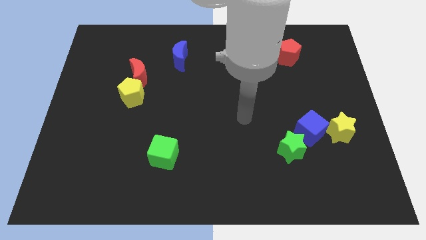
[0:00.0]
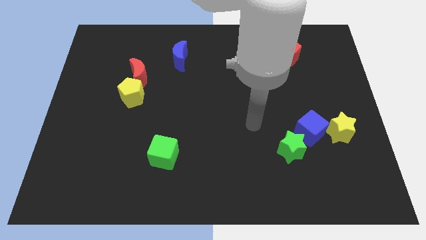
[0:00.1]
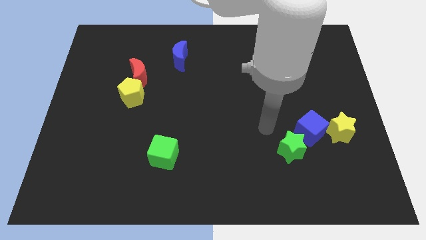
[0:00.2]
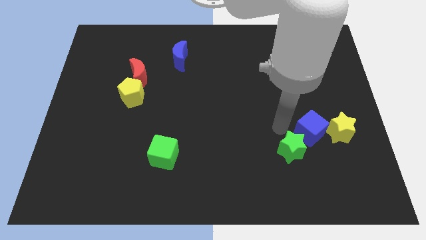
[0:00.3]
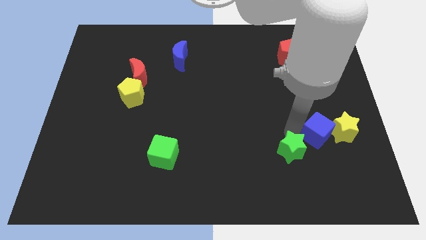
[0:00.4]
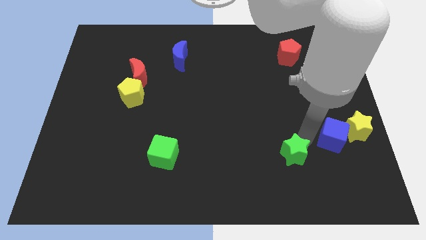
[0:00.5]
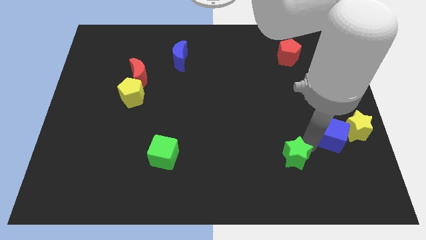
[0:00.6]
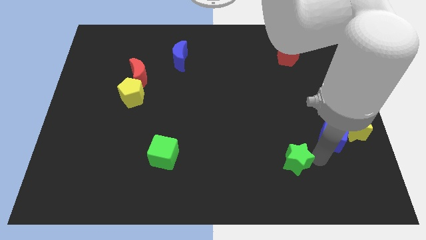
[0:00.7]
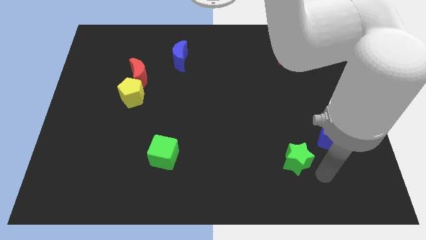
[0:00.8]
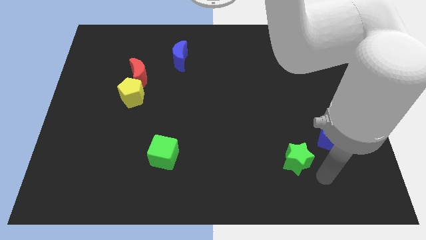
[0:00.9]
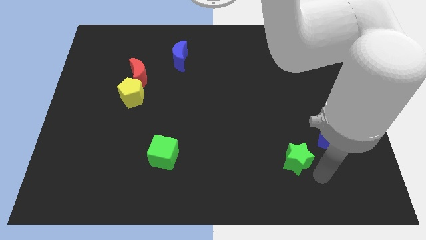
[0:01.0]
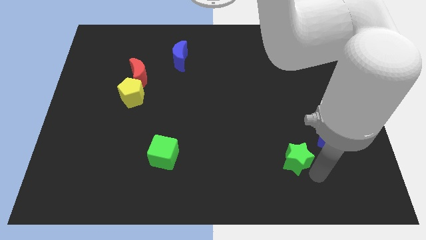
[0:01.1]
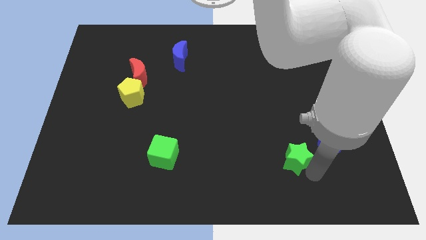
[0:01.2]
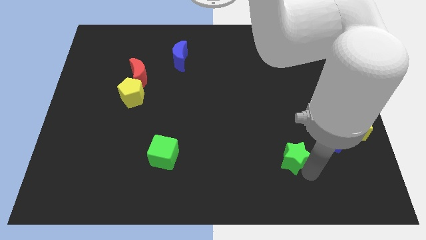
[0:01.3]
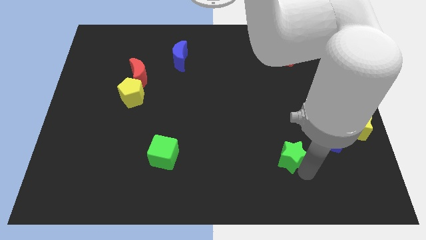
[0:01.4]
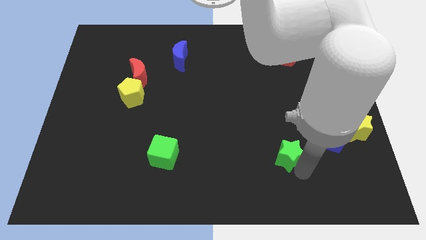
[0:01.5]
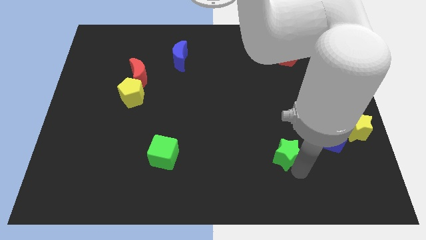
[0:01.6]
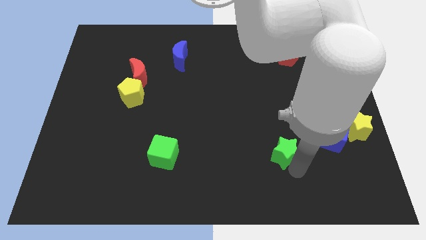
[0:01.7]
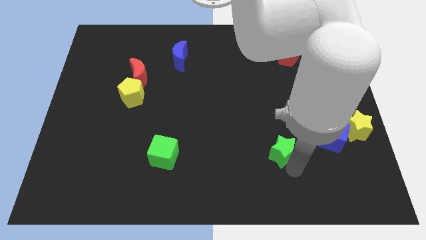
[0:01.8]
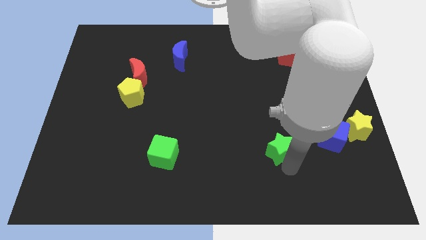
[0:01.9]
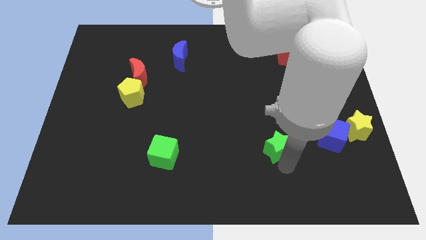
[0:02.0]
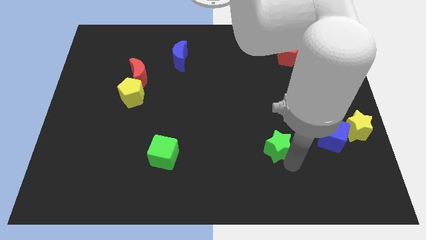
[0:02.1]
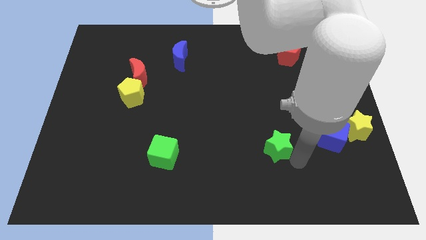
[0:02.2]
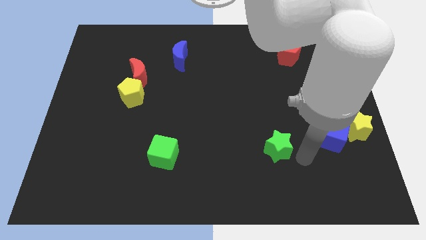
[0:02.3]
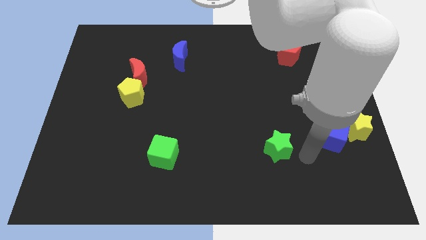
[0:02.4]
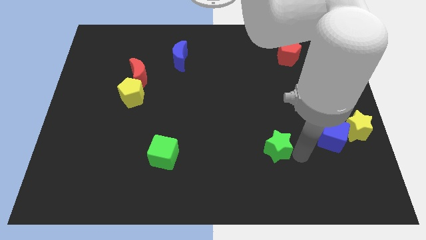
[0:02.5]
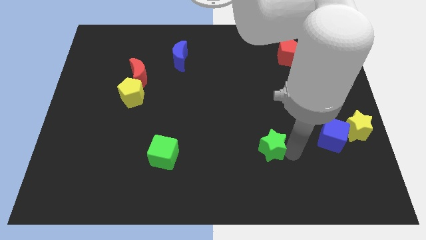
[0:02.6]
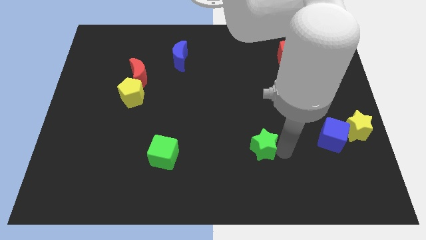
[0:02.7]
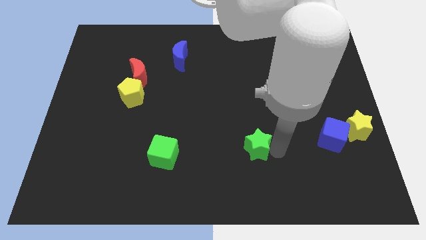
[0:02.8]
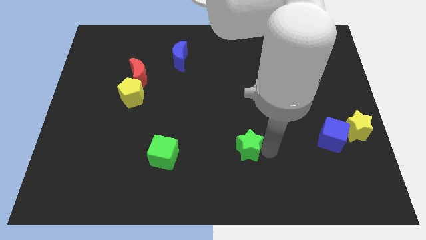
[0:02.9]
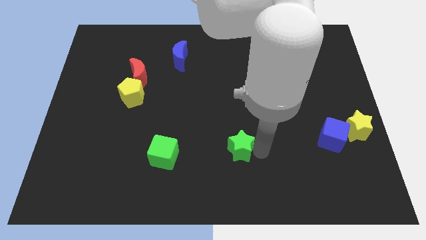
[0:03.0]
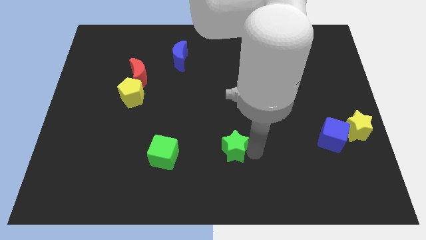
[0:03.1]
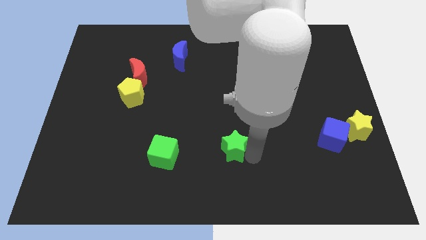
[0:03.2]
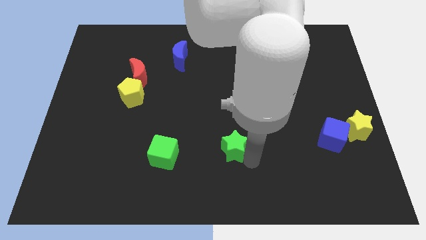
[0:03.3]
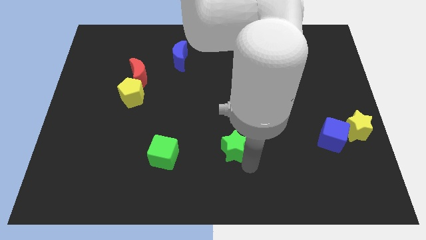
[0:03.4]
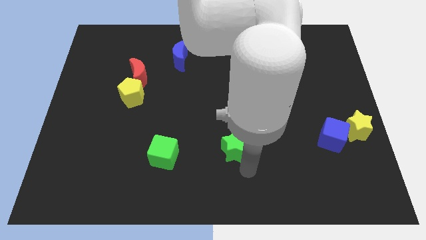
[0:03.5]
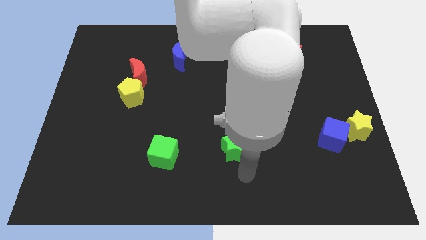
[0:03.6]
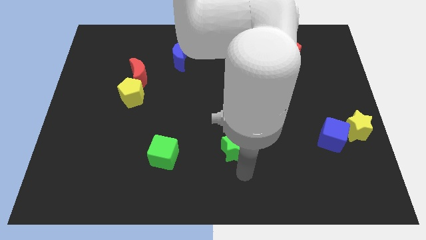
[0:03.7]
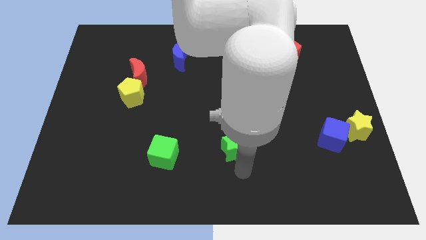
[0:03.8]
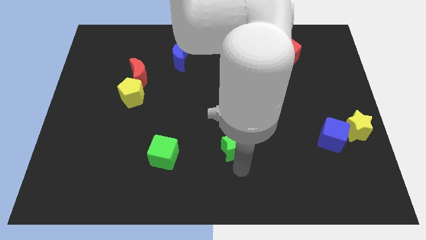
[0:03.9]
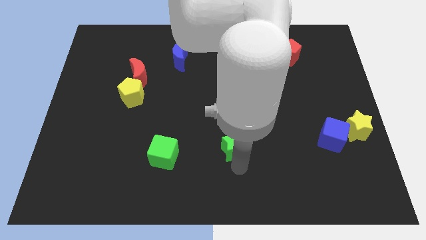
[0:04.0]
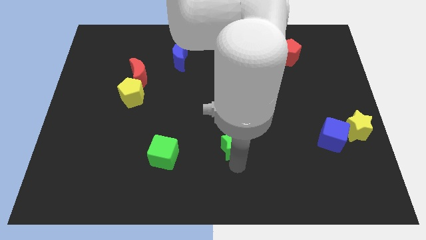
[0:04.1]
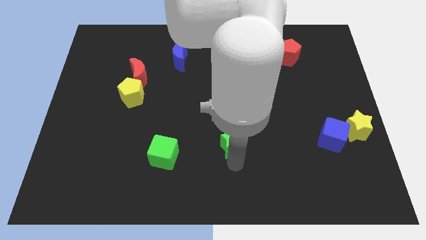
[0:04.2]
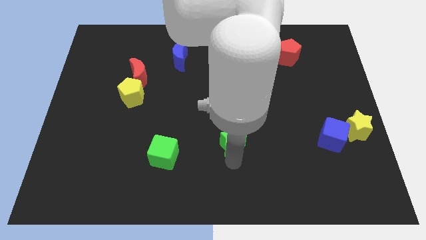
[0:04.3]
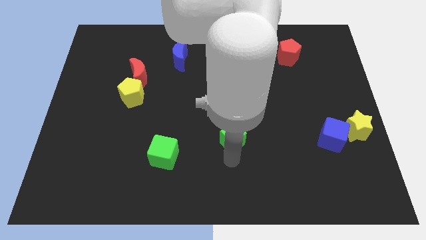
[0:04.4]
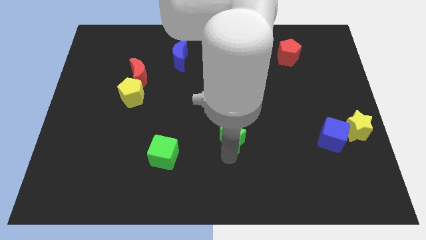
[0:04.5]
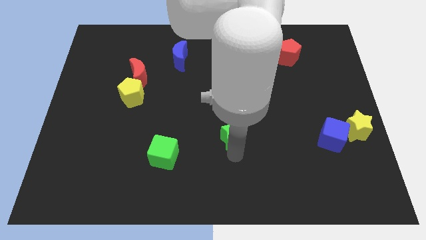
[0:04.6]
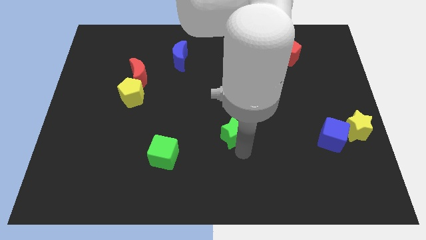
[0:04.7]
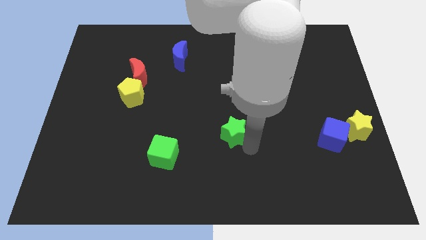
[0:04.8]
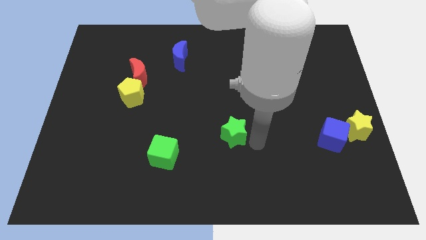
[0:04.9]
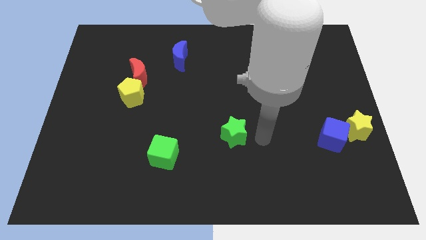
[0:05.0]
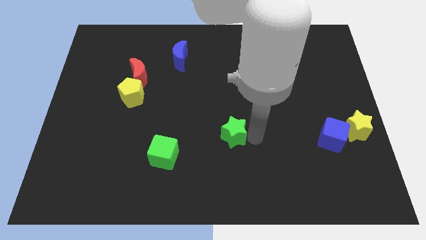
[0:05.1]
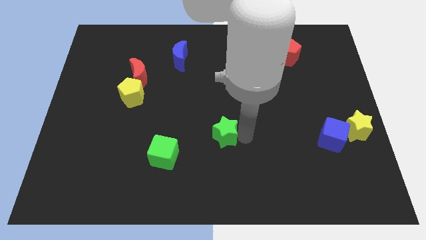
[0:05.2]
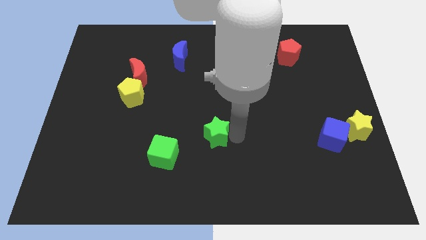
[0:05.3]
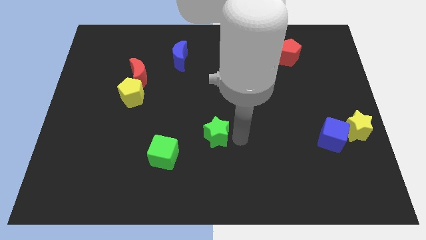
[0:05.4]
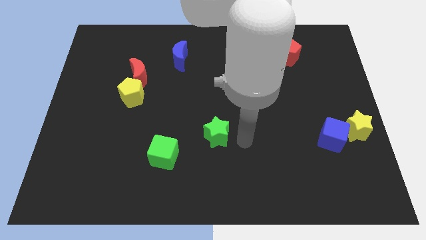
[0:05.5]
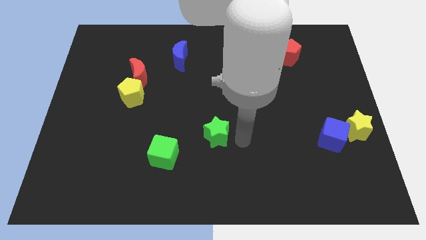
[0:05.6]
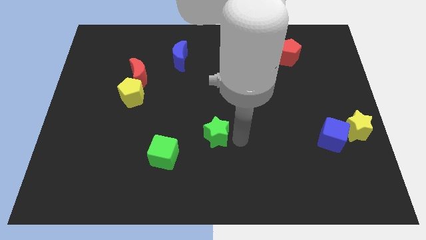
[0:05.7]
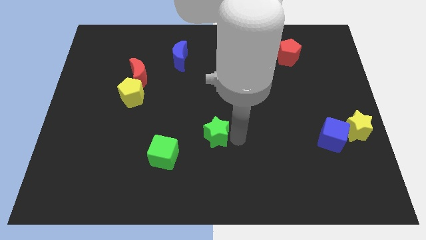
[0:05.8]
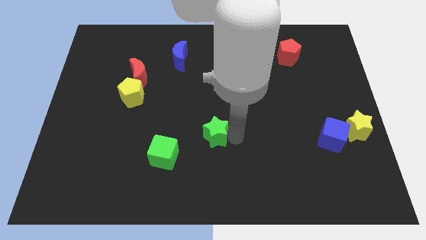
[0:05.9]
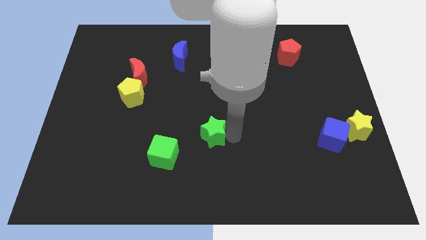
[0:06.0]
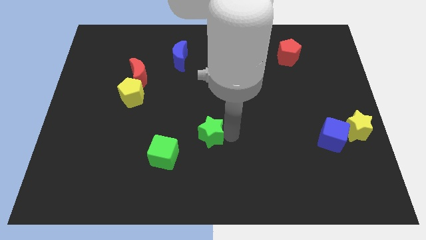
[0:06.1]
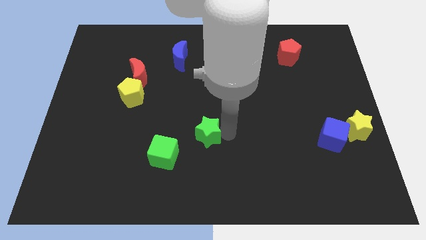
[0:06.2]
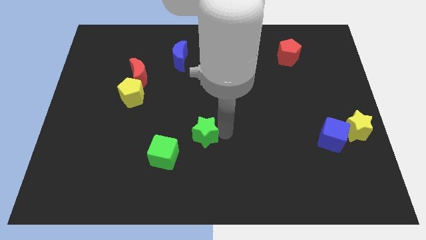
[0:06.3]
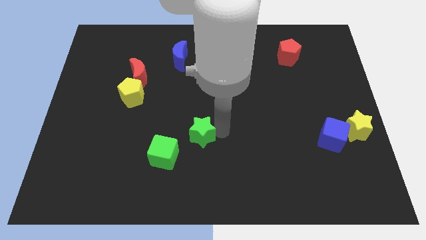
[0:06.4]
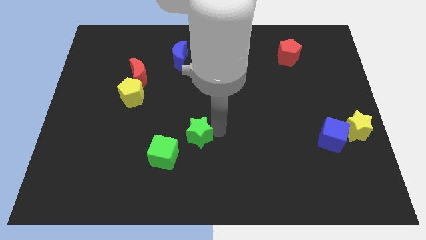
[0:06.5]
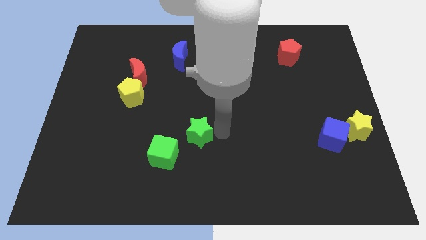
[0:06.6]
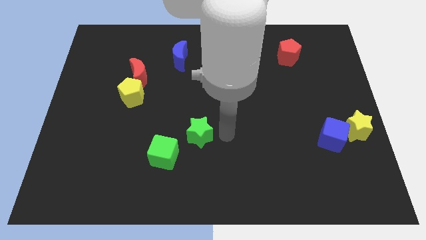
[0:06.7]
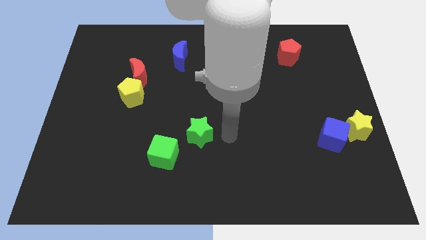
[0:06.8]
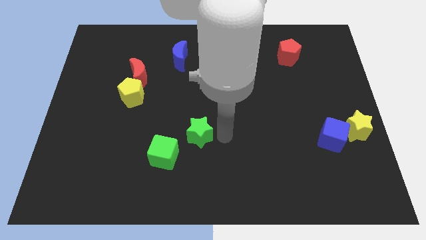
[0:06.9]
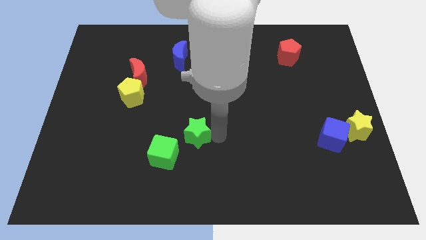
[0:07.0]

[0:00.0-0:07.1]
move the green star to the left

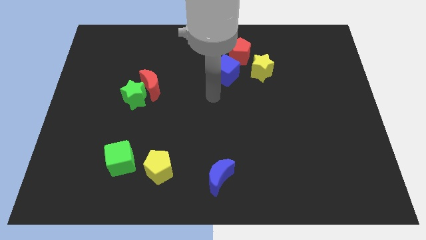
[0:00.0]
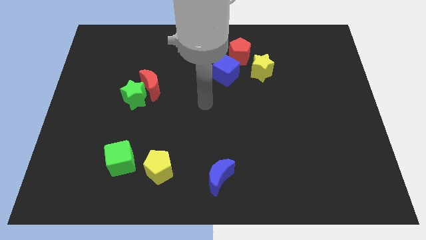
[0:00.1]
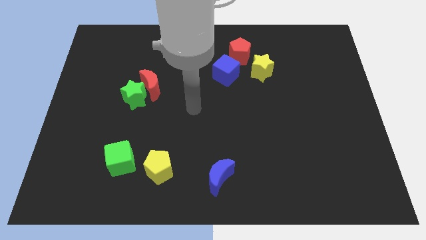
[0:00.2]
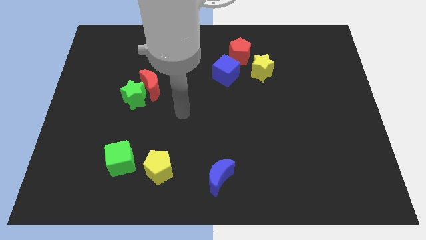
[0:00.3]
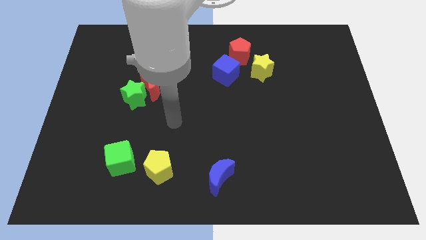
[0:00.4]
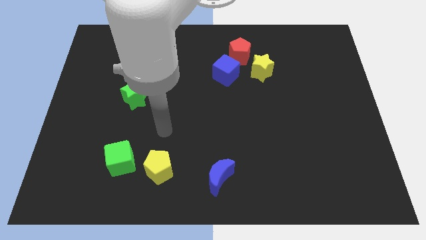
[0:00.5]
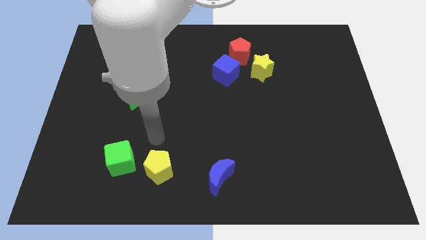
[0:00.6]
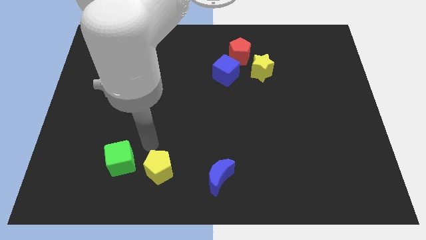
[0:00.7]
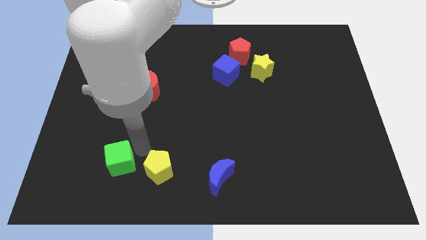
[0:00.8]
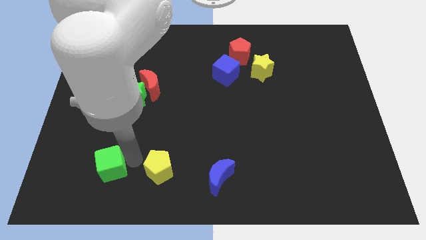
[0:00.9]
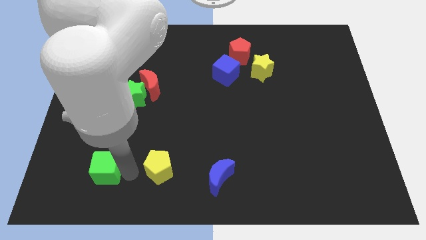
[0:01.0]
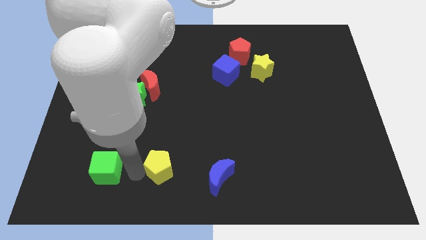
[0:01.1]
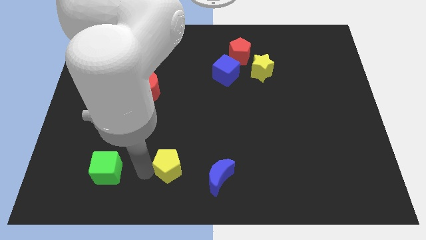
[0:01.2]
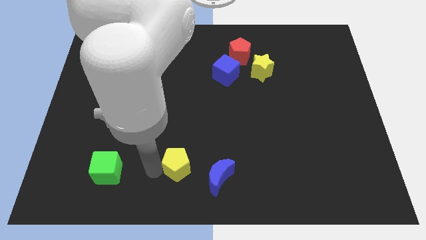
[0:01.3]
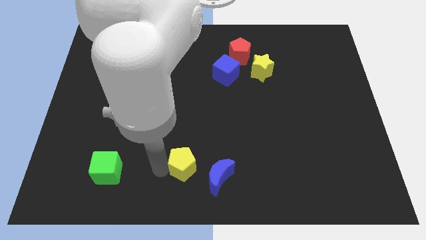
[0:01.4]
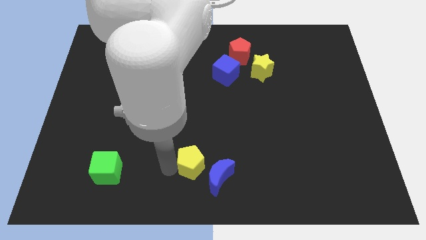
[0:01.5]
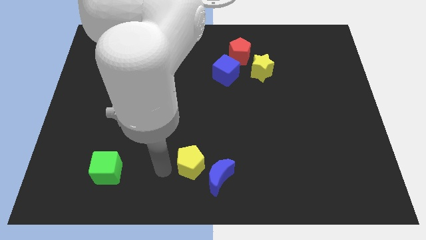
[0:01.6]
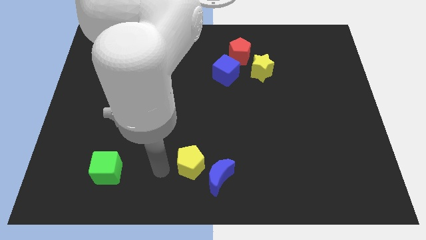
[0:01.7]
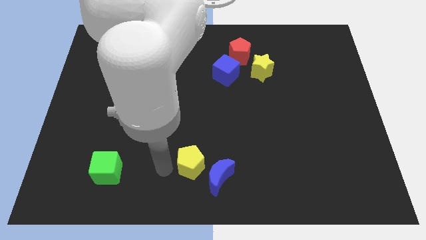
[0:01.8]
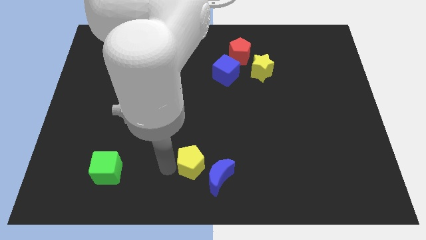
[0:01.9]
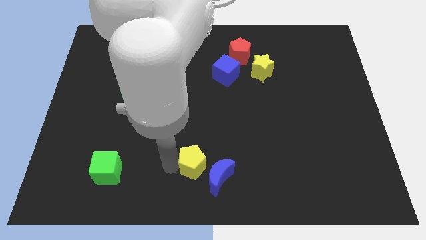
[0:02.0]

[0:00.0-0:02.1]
slightly push the yellow pentagon right
